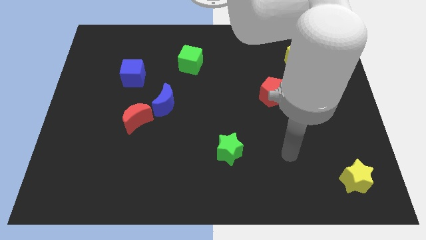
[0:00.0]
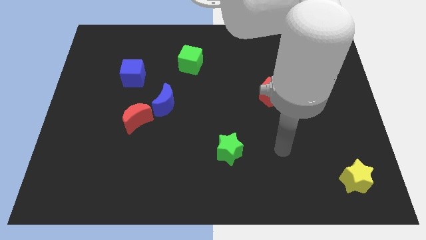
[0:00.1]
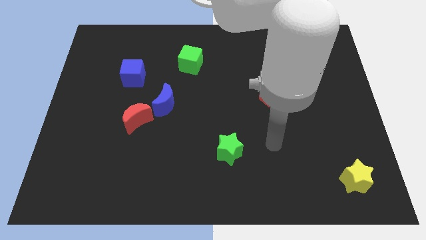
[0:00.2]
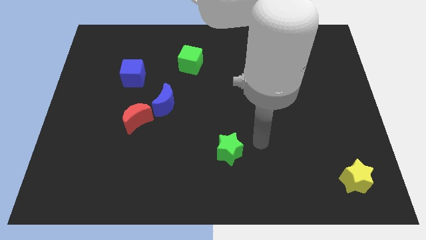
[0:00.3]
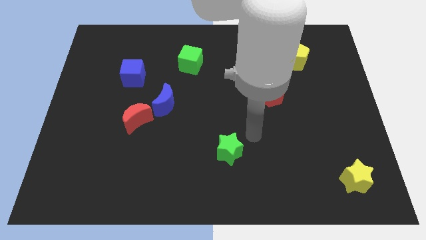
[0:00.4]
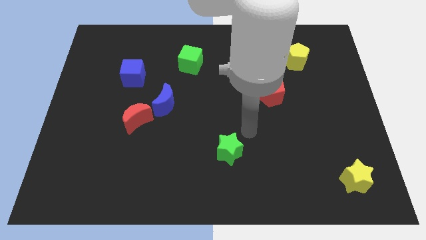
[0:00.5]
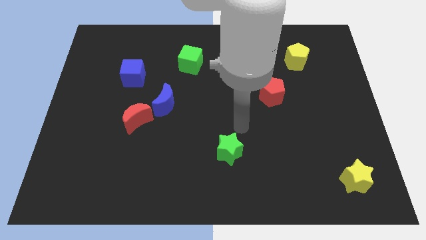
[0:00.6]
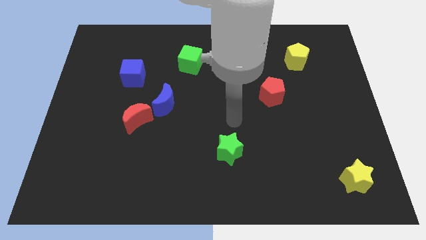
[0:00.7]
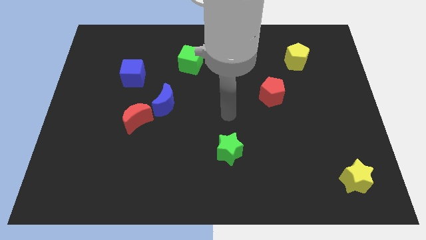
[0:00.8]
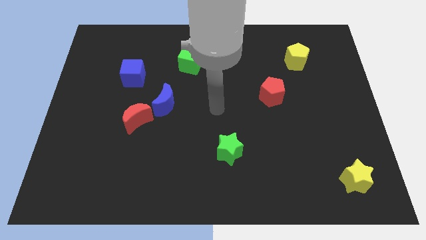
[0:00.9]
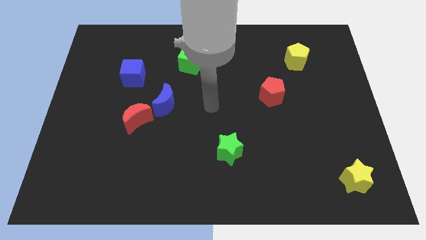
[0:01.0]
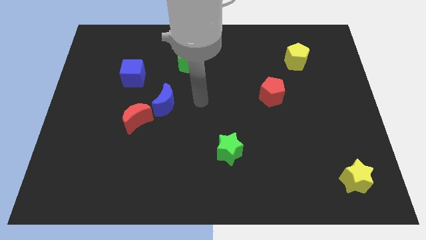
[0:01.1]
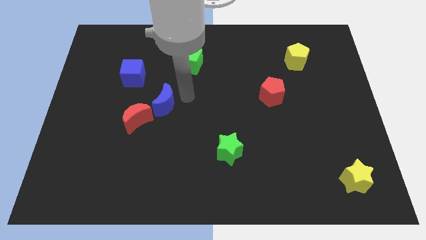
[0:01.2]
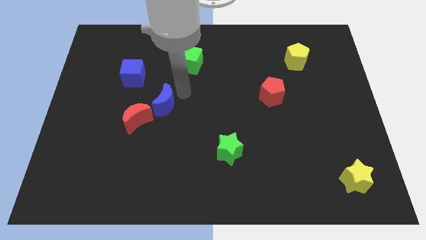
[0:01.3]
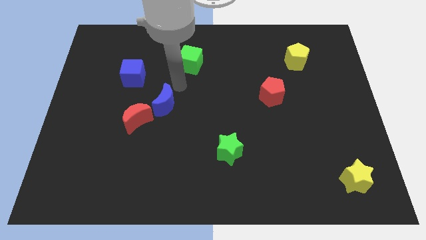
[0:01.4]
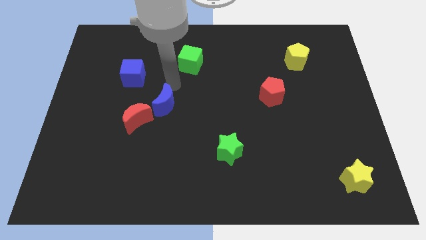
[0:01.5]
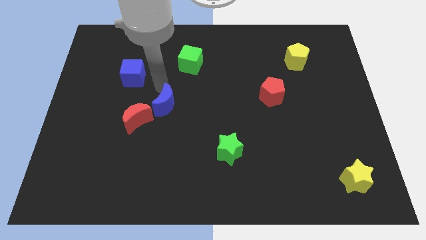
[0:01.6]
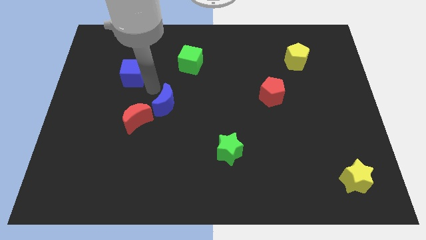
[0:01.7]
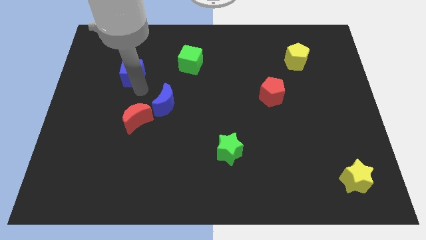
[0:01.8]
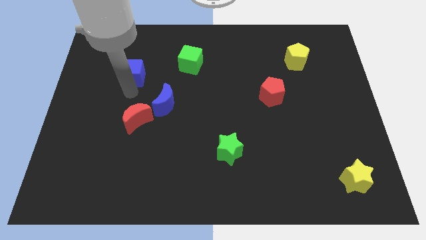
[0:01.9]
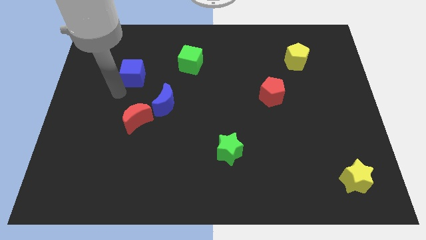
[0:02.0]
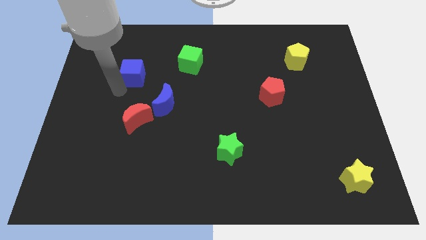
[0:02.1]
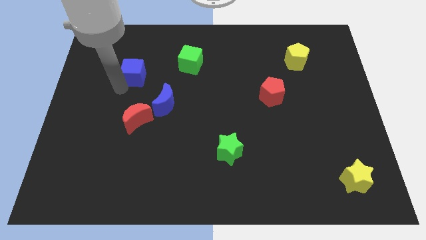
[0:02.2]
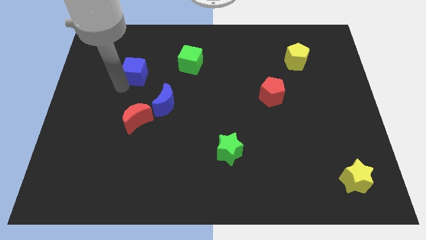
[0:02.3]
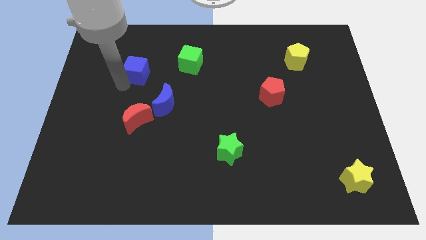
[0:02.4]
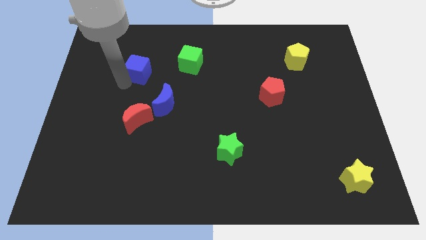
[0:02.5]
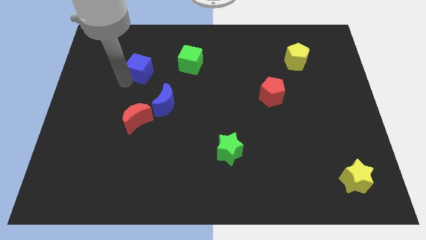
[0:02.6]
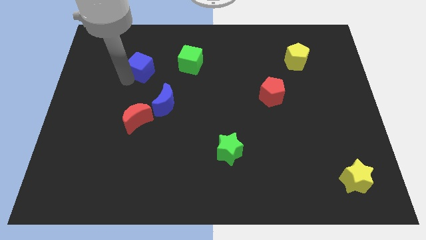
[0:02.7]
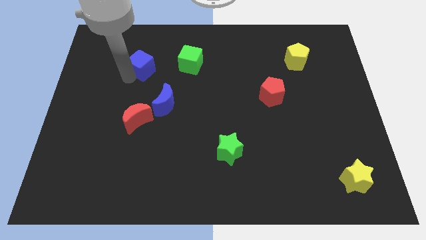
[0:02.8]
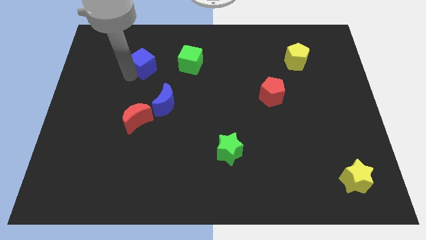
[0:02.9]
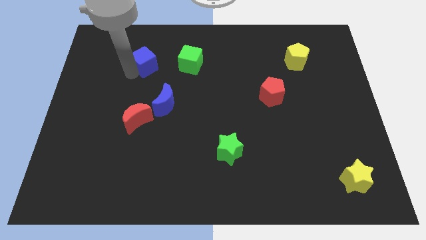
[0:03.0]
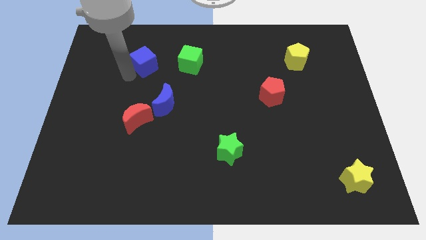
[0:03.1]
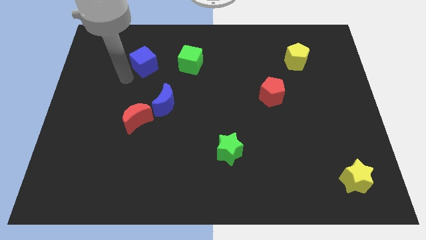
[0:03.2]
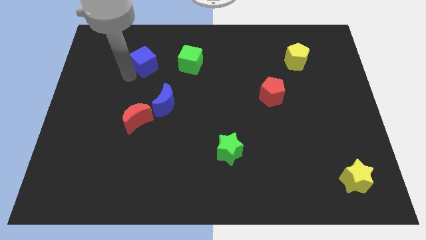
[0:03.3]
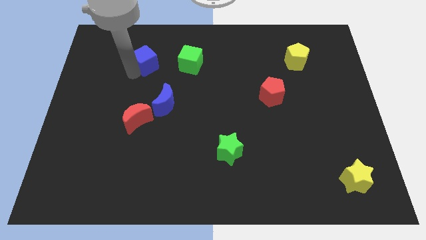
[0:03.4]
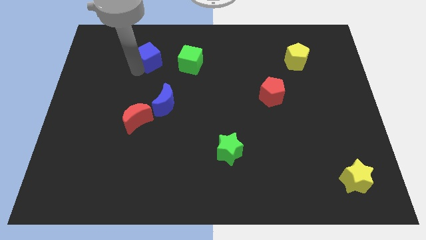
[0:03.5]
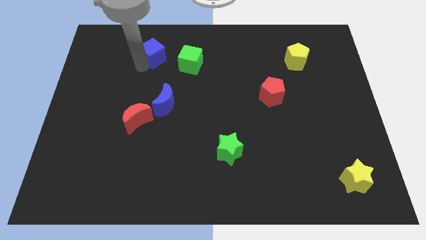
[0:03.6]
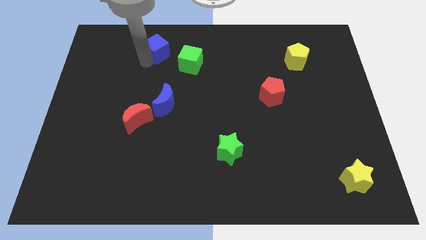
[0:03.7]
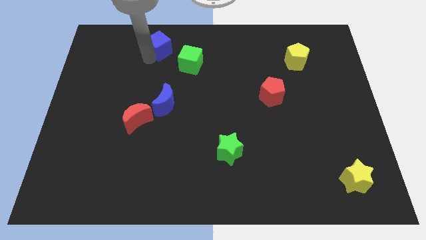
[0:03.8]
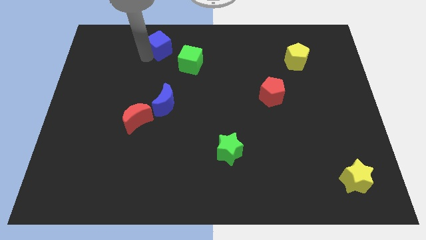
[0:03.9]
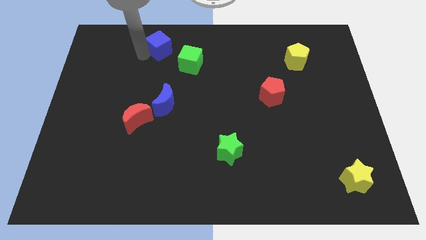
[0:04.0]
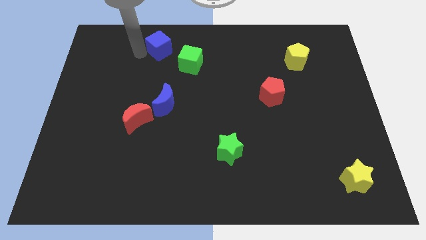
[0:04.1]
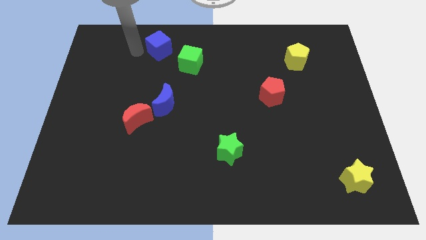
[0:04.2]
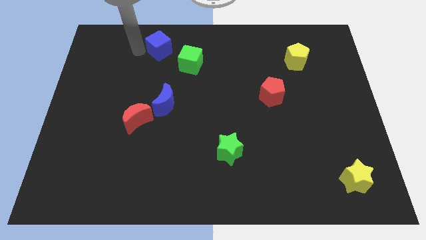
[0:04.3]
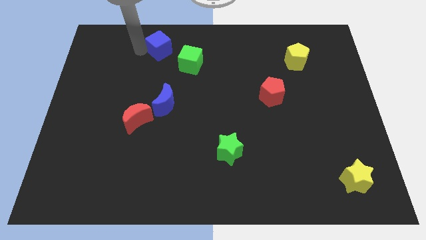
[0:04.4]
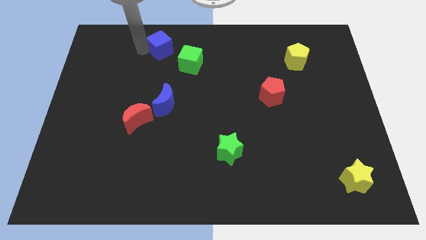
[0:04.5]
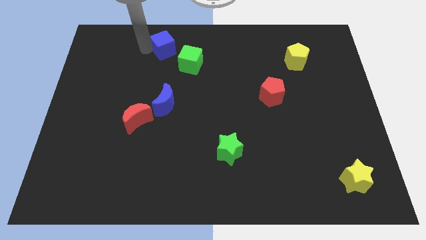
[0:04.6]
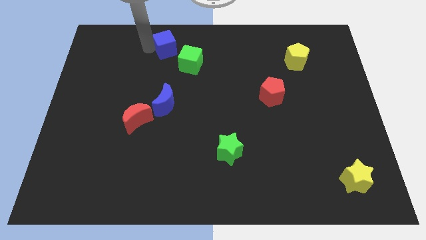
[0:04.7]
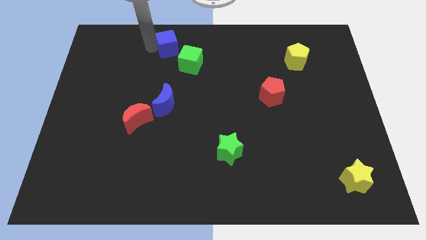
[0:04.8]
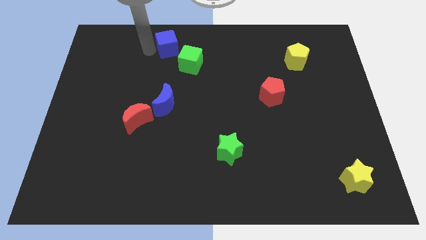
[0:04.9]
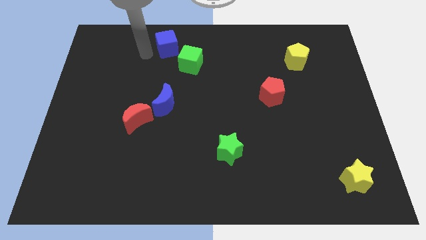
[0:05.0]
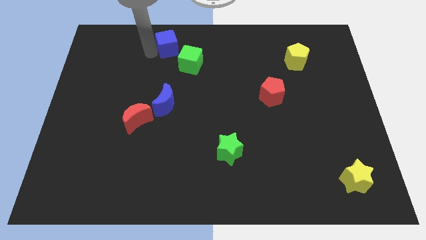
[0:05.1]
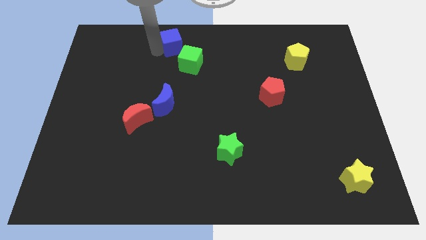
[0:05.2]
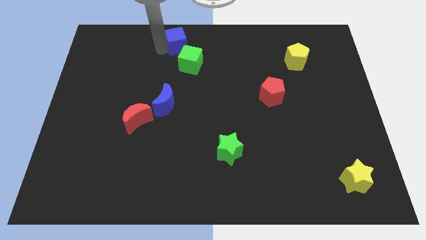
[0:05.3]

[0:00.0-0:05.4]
move the blue cube to the top

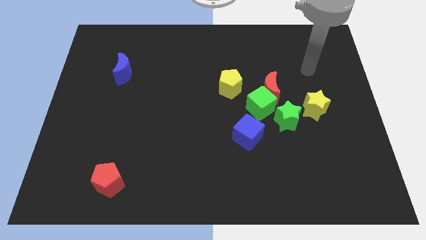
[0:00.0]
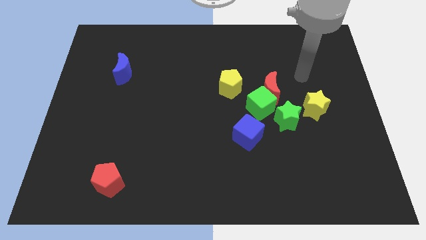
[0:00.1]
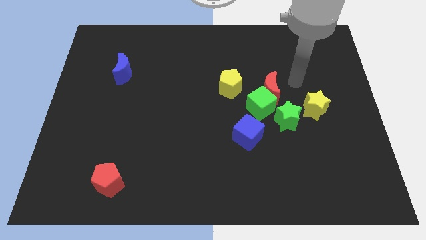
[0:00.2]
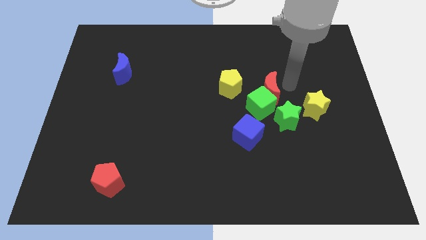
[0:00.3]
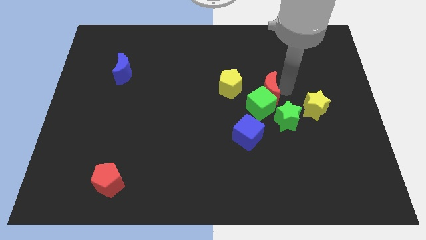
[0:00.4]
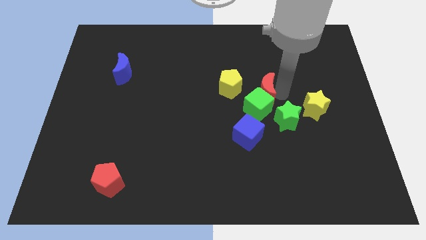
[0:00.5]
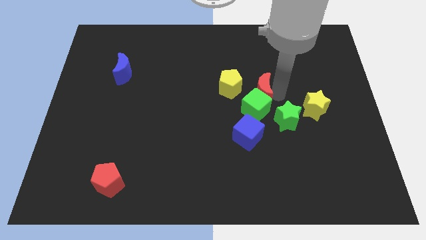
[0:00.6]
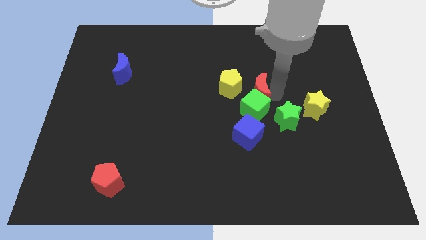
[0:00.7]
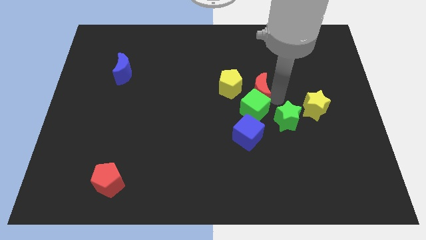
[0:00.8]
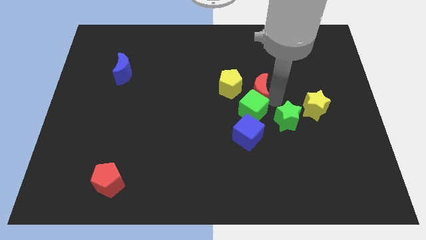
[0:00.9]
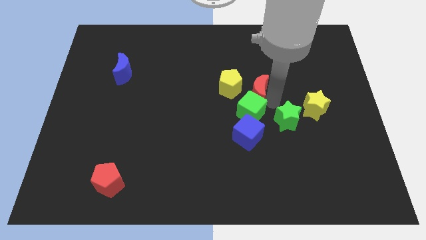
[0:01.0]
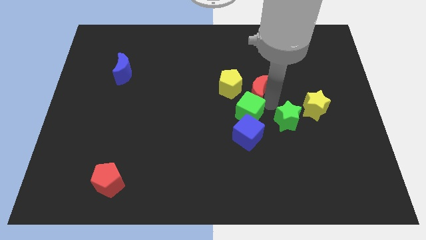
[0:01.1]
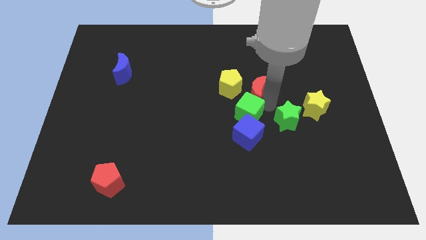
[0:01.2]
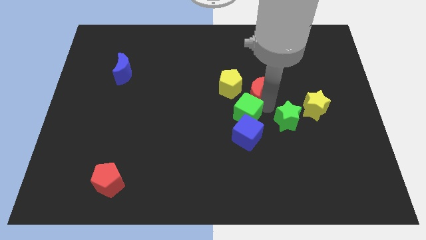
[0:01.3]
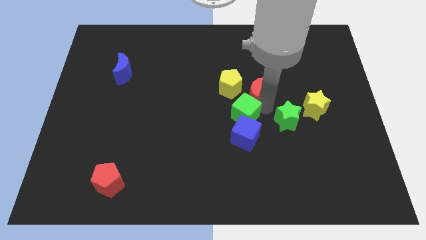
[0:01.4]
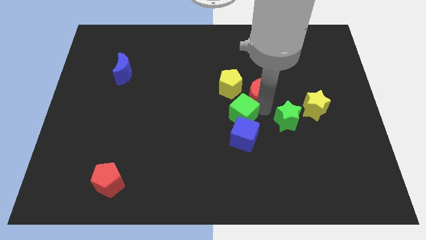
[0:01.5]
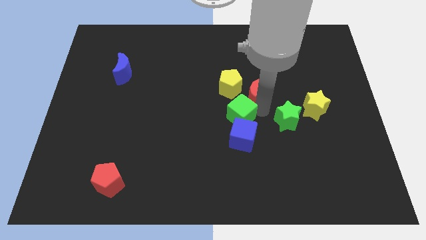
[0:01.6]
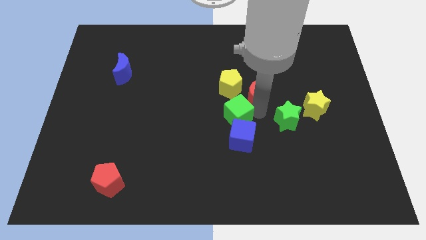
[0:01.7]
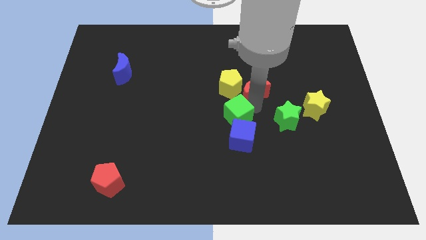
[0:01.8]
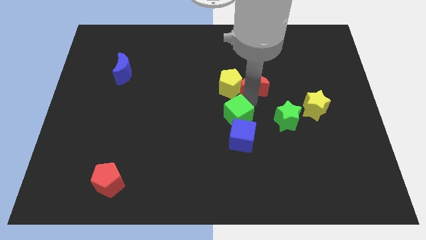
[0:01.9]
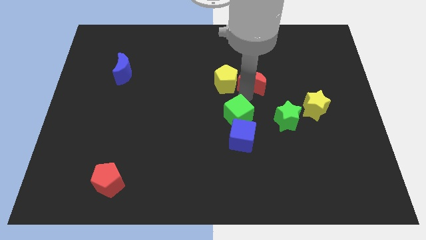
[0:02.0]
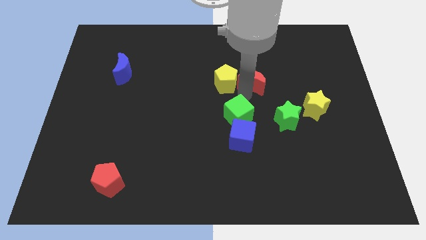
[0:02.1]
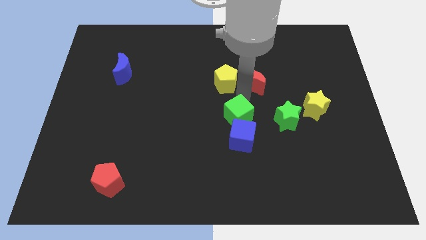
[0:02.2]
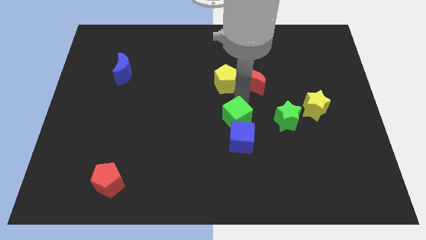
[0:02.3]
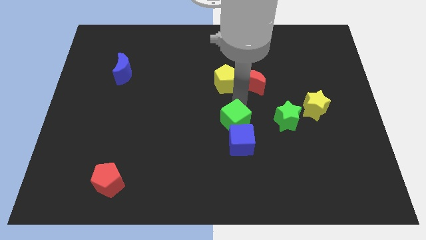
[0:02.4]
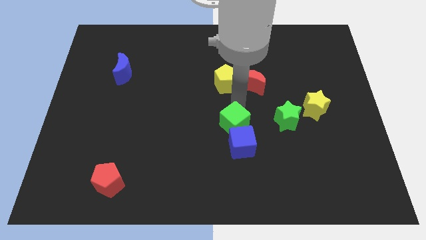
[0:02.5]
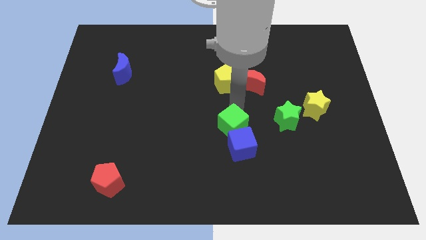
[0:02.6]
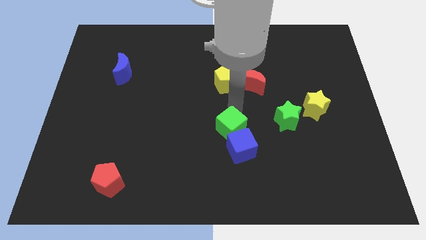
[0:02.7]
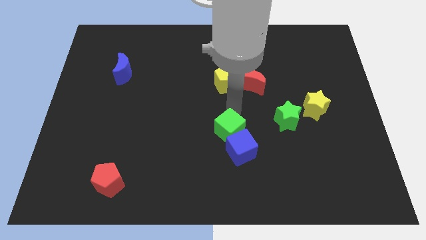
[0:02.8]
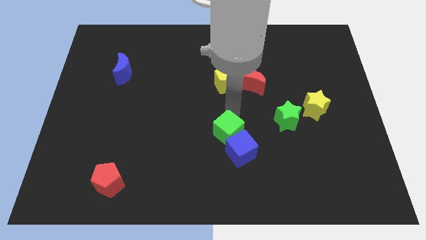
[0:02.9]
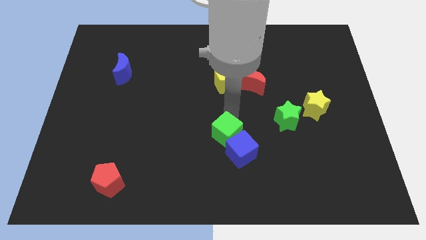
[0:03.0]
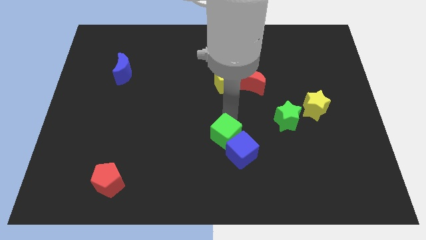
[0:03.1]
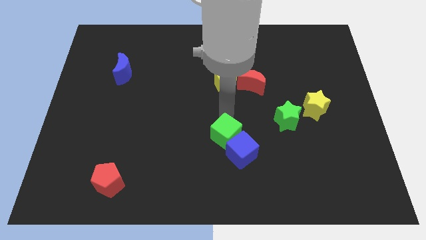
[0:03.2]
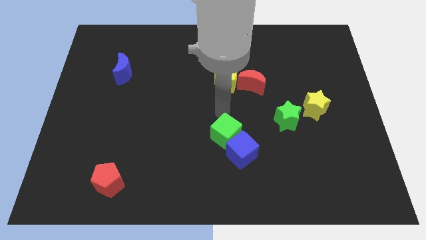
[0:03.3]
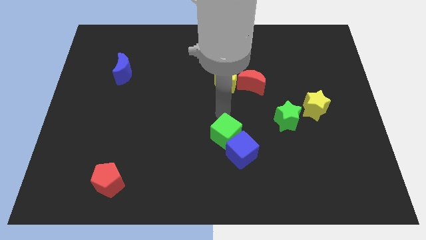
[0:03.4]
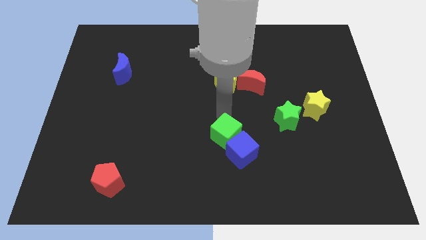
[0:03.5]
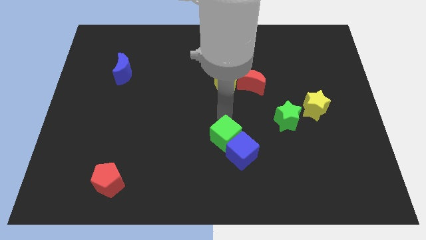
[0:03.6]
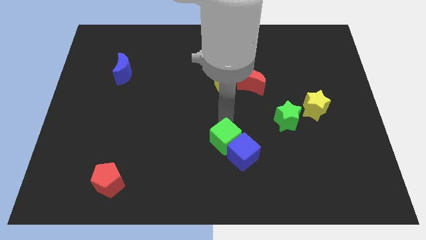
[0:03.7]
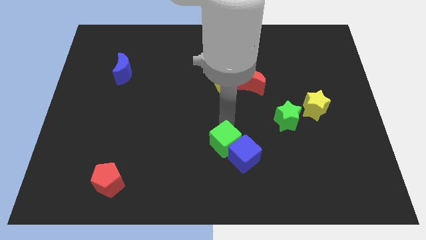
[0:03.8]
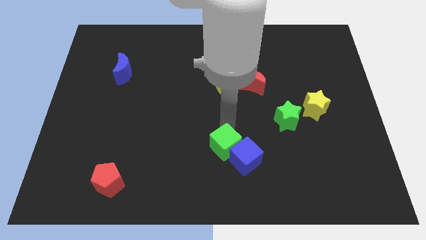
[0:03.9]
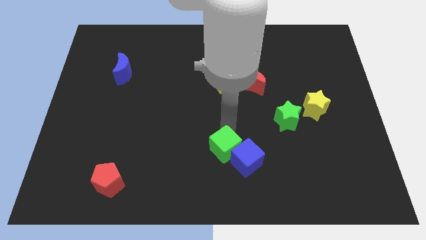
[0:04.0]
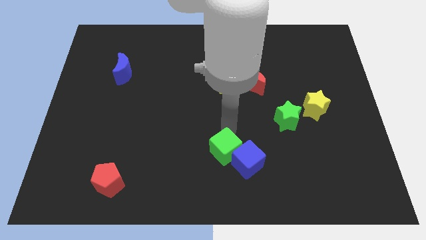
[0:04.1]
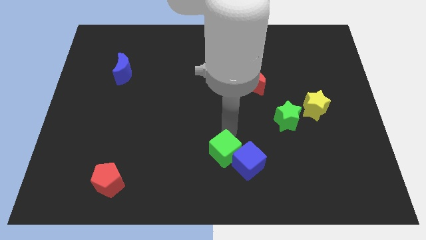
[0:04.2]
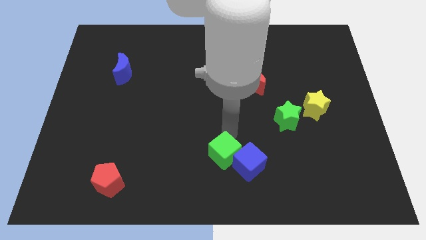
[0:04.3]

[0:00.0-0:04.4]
push the green cube to the bottom side
